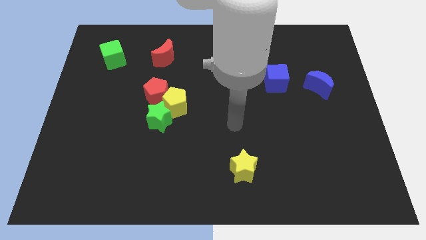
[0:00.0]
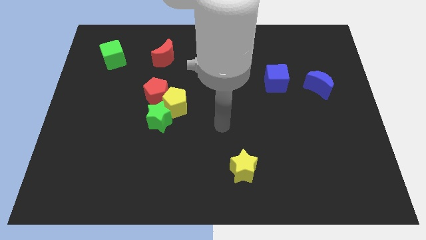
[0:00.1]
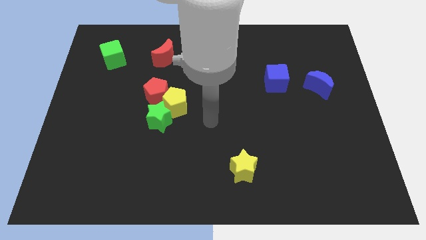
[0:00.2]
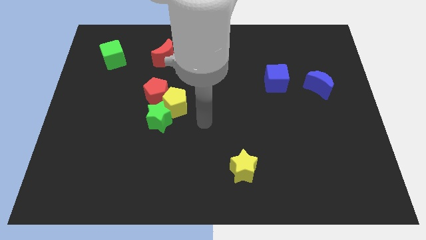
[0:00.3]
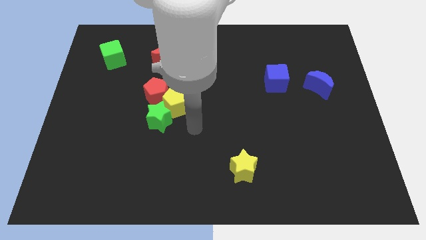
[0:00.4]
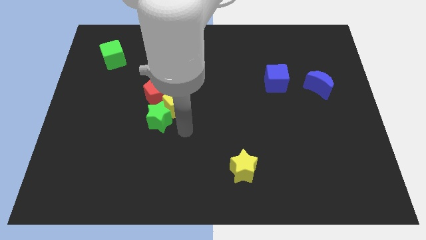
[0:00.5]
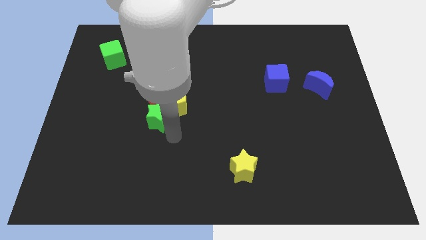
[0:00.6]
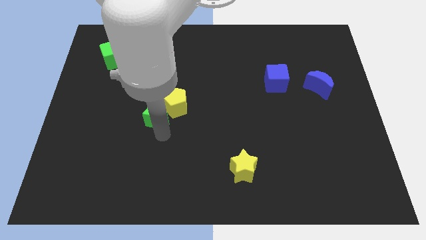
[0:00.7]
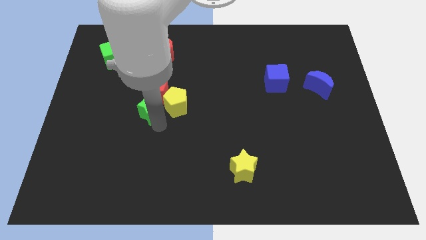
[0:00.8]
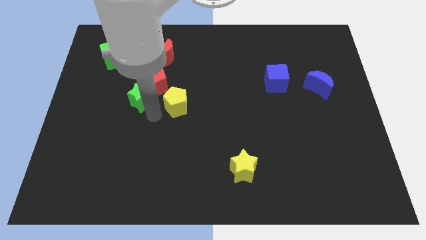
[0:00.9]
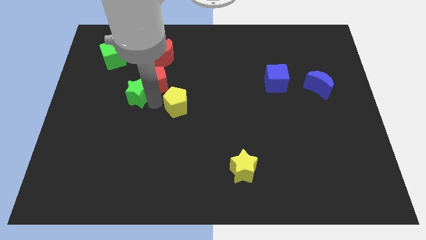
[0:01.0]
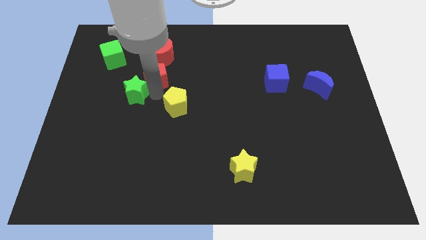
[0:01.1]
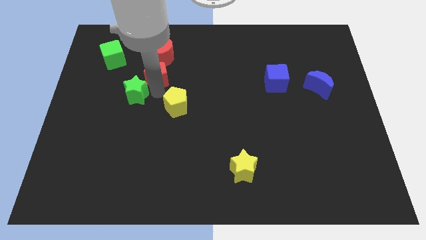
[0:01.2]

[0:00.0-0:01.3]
move the yellow pentagon away from the green star and red pentagon

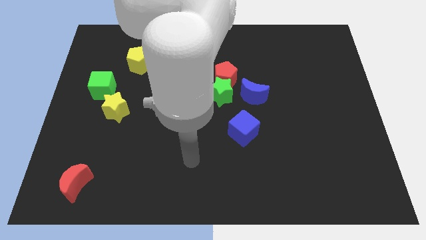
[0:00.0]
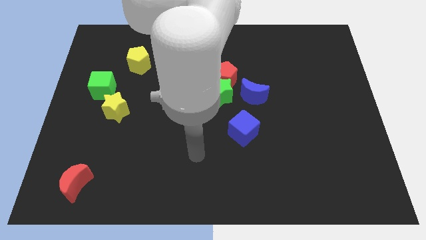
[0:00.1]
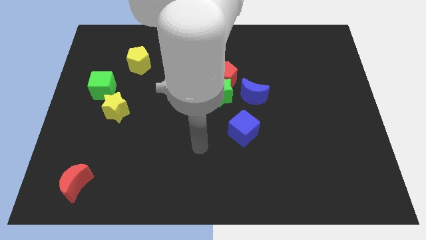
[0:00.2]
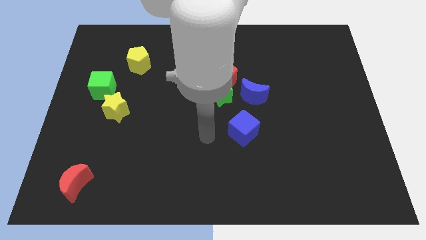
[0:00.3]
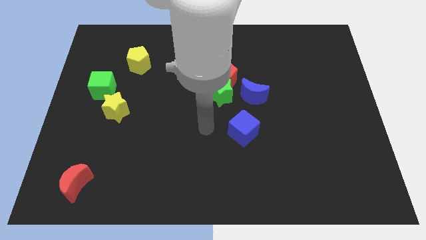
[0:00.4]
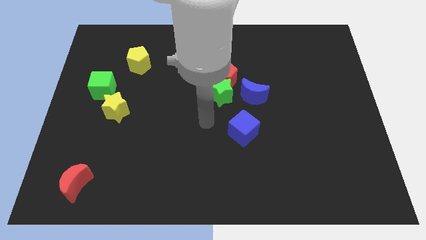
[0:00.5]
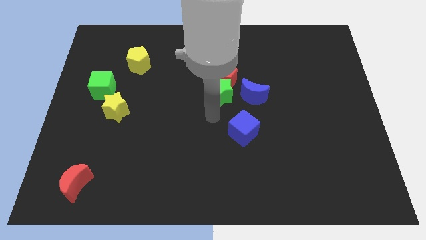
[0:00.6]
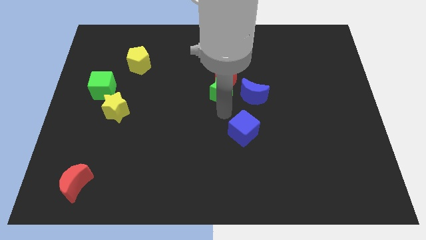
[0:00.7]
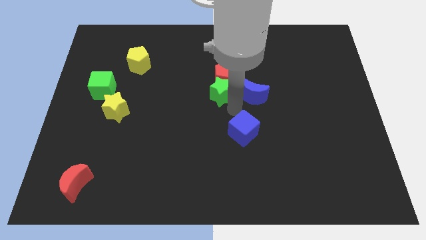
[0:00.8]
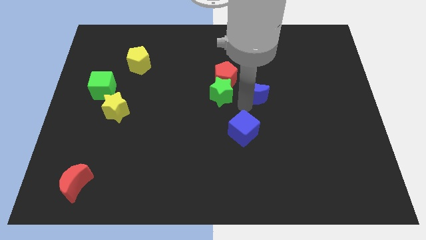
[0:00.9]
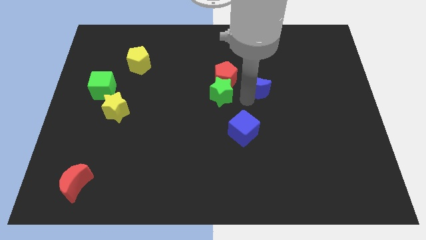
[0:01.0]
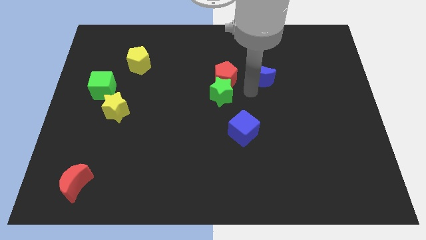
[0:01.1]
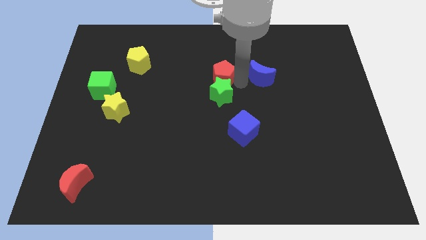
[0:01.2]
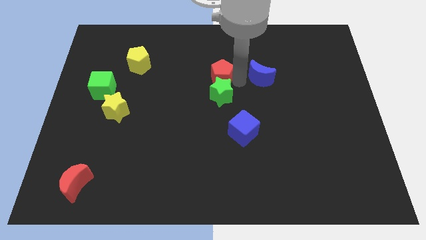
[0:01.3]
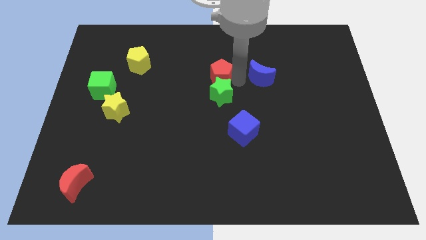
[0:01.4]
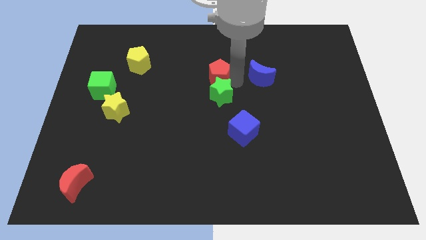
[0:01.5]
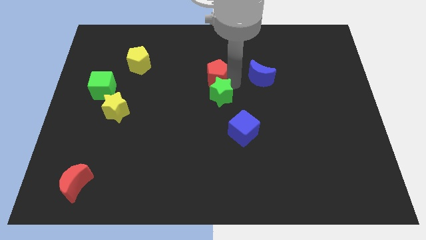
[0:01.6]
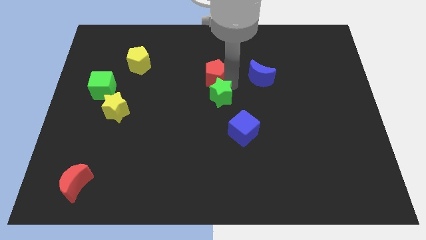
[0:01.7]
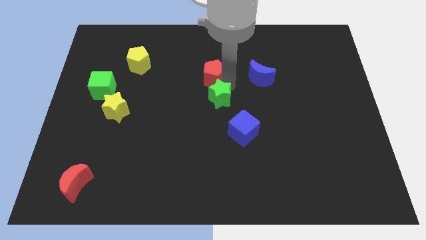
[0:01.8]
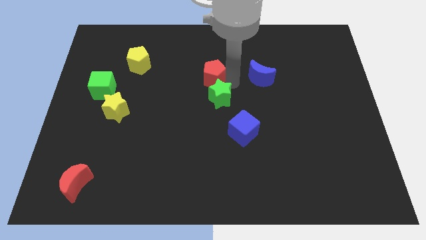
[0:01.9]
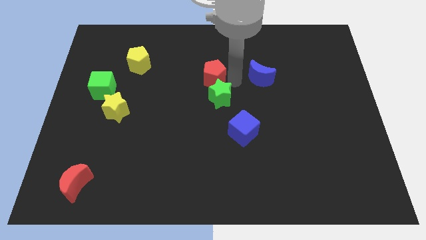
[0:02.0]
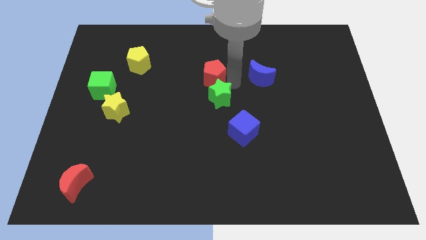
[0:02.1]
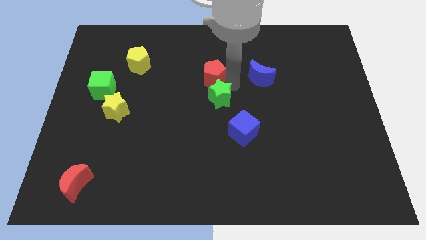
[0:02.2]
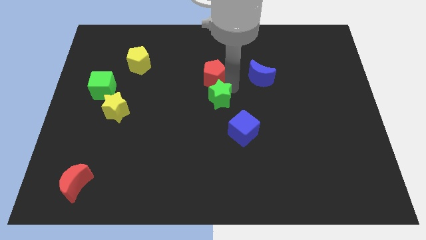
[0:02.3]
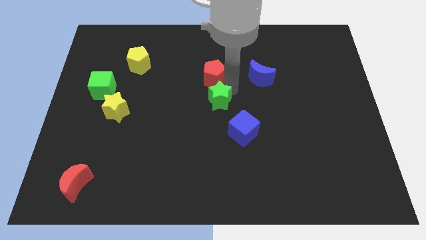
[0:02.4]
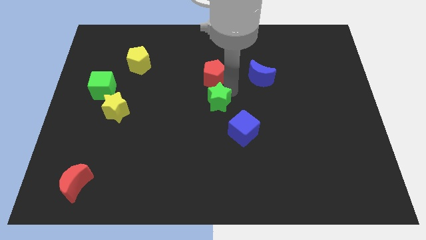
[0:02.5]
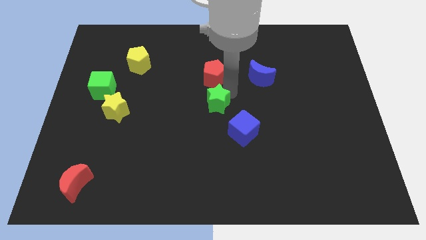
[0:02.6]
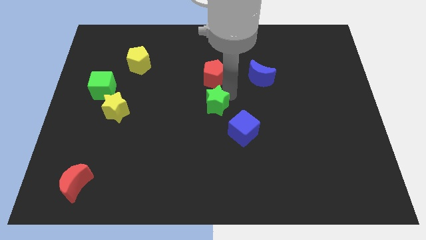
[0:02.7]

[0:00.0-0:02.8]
separate the green star from the red pentagon and blue moon

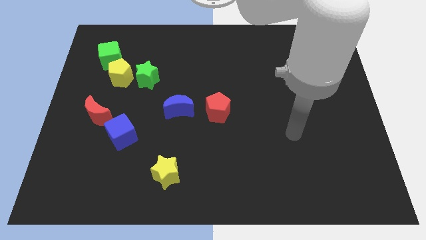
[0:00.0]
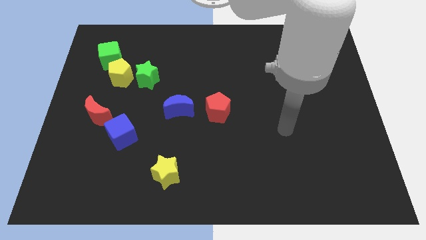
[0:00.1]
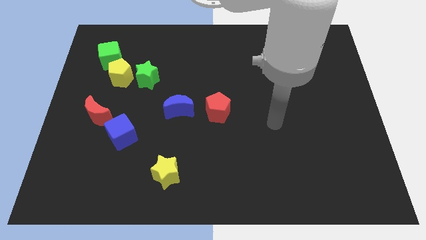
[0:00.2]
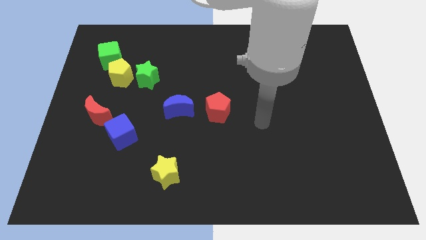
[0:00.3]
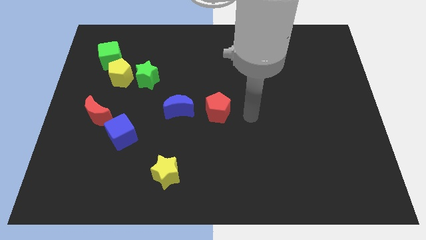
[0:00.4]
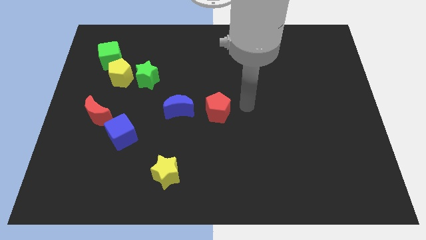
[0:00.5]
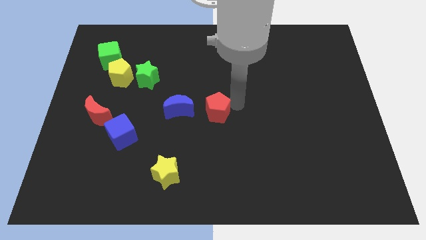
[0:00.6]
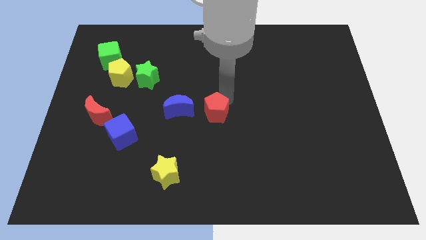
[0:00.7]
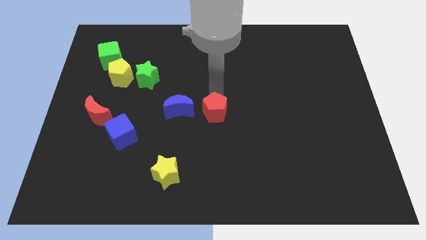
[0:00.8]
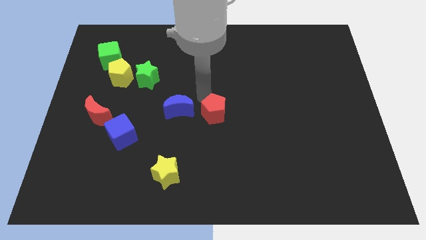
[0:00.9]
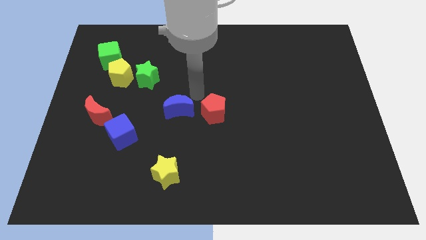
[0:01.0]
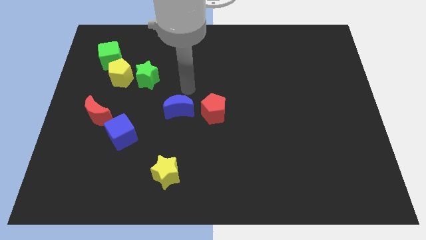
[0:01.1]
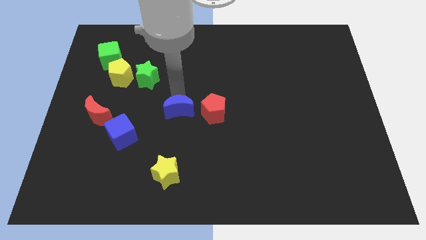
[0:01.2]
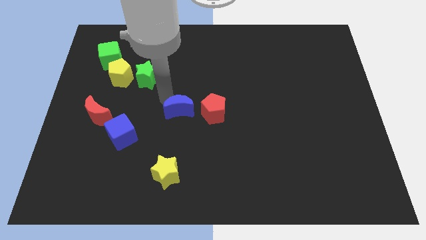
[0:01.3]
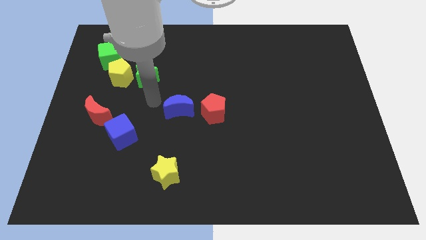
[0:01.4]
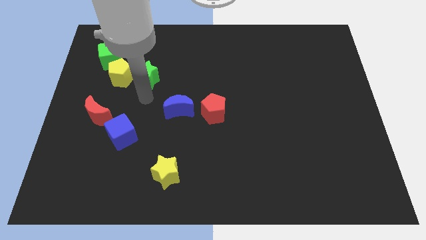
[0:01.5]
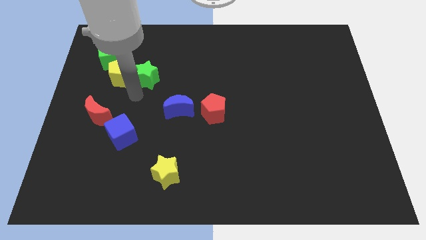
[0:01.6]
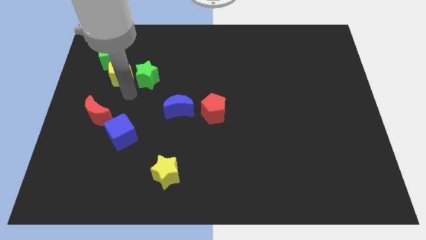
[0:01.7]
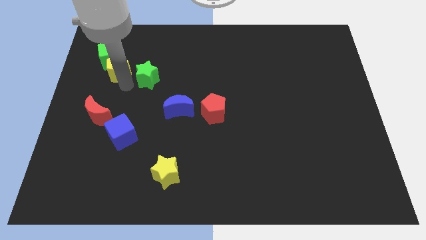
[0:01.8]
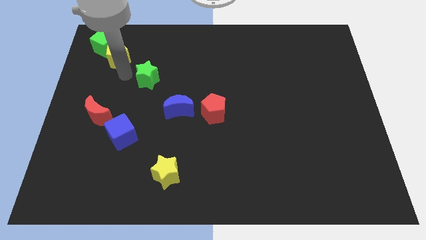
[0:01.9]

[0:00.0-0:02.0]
move the green star away from the yellow pentagon

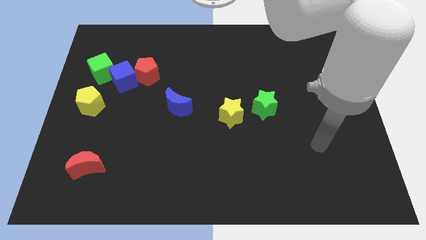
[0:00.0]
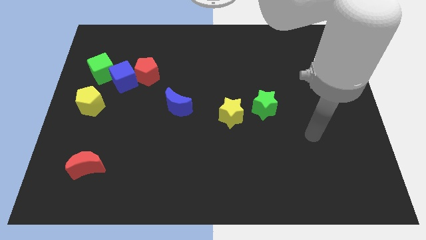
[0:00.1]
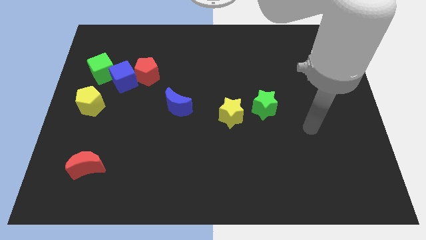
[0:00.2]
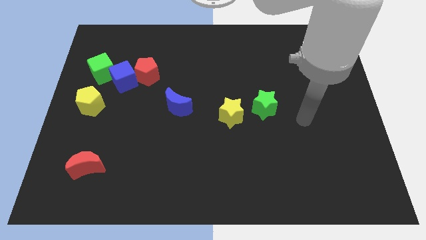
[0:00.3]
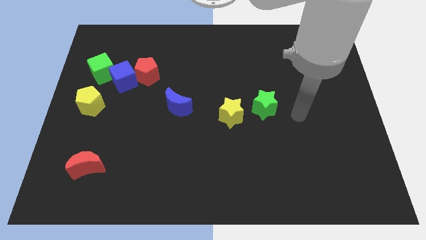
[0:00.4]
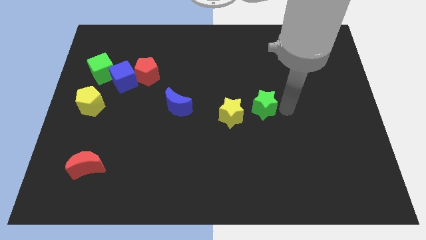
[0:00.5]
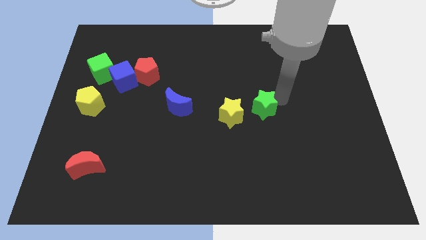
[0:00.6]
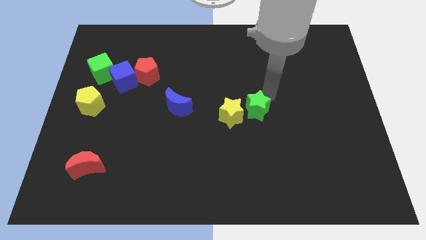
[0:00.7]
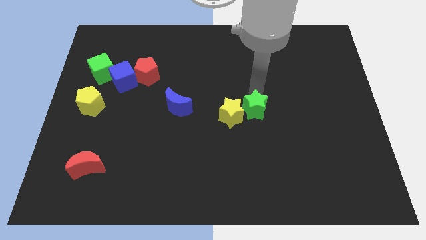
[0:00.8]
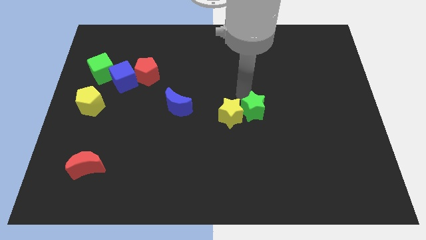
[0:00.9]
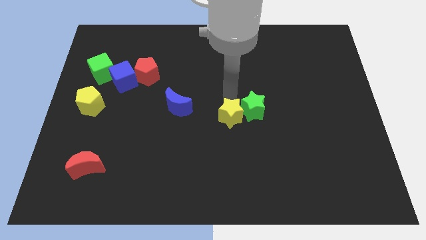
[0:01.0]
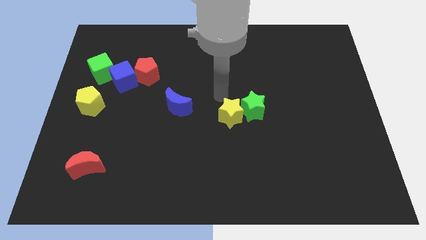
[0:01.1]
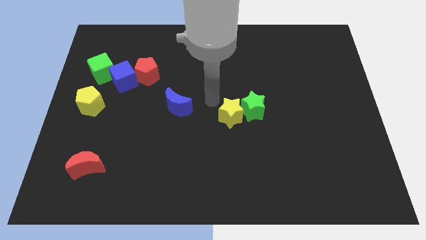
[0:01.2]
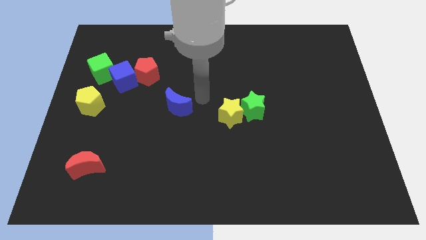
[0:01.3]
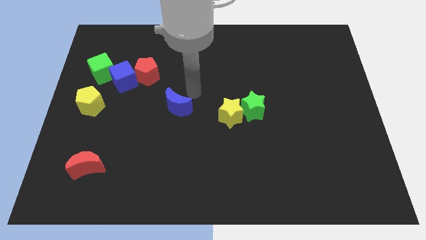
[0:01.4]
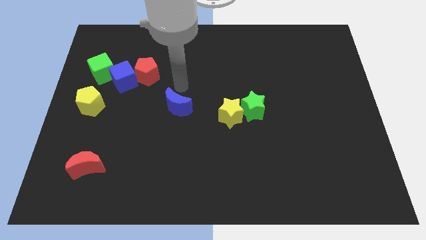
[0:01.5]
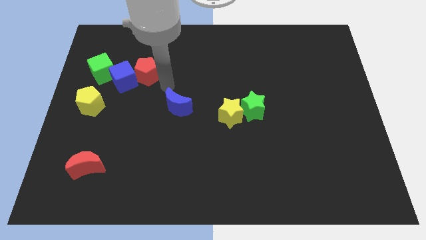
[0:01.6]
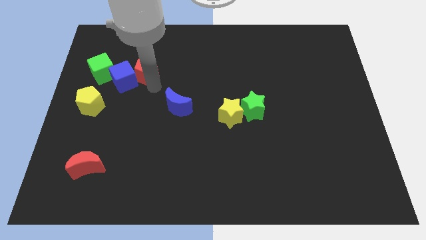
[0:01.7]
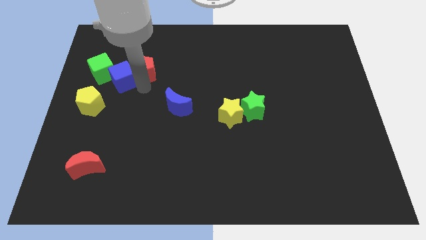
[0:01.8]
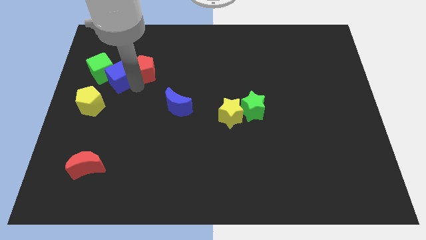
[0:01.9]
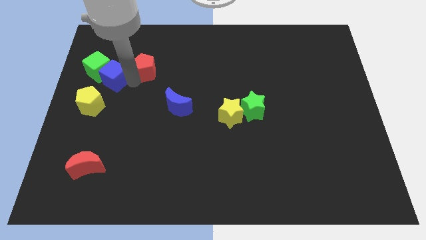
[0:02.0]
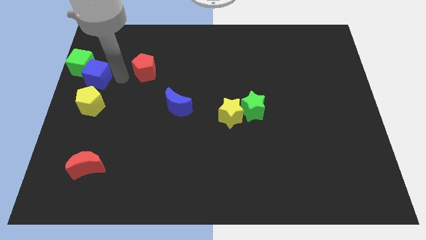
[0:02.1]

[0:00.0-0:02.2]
pull the red pentagon apart from the blue cube

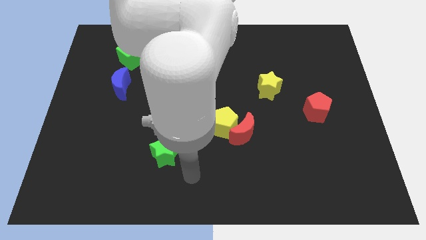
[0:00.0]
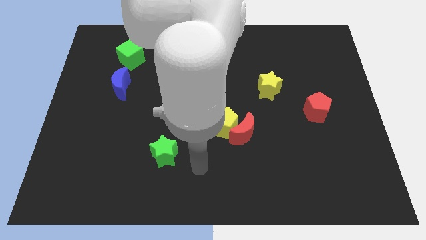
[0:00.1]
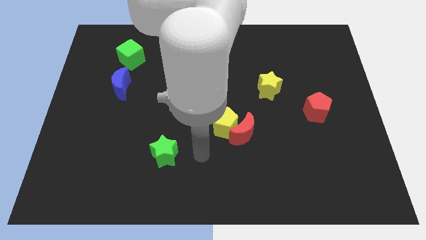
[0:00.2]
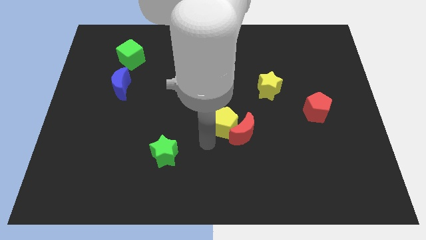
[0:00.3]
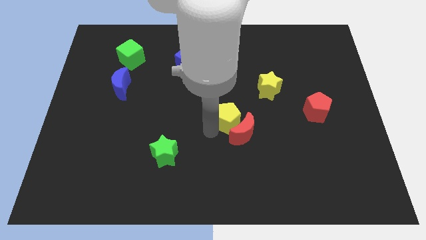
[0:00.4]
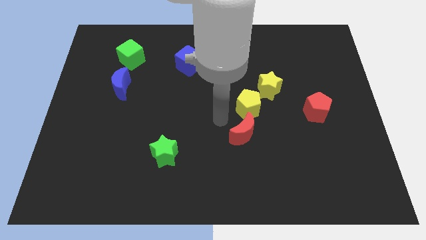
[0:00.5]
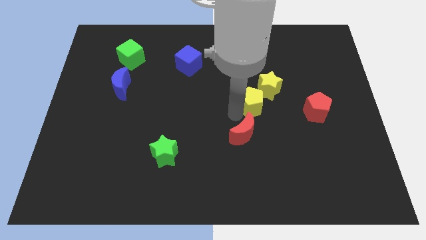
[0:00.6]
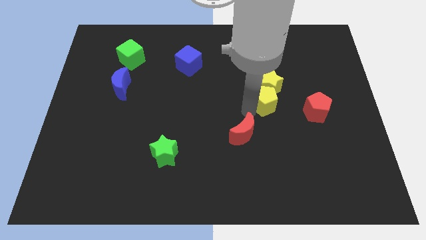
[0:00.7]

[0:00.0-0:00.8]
move the red moon away from the yellow pentagon

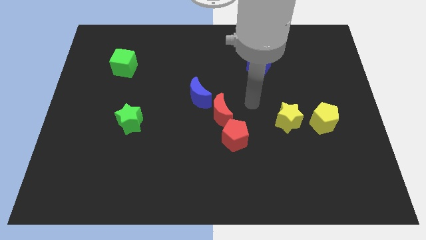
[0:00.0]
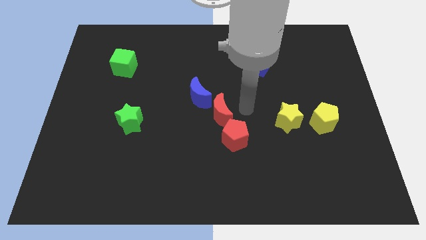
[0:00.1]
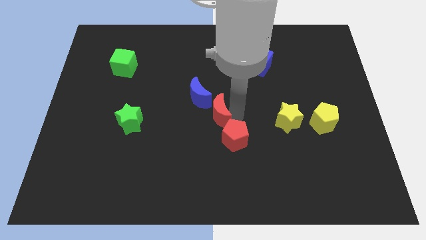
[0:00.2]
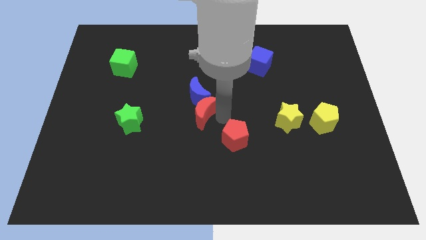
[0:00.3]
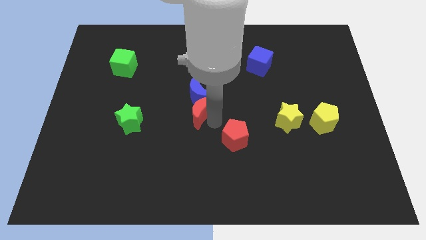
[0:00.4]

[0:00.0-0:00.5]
pull the red pentagon apart from the red moon
